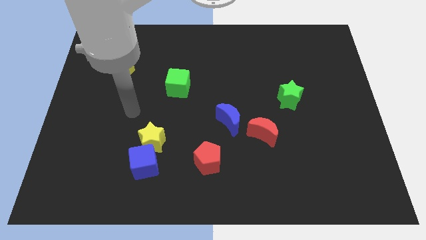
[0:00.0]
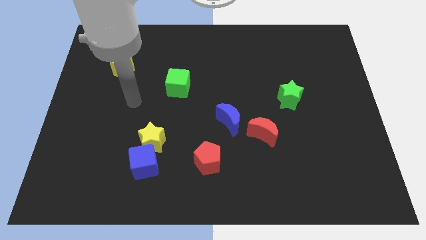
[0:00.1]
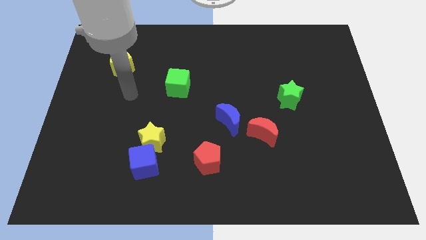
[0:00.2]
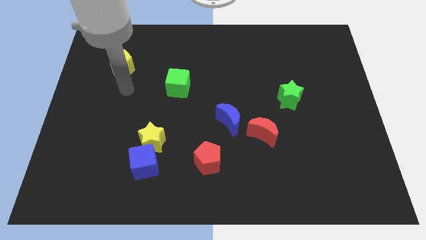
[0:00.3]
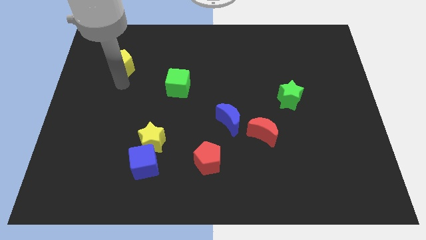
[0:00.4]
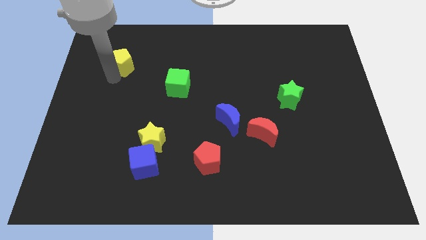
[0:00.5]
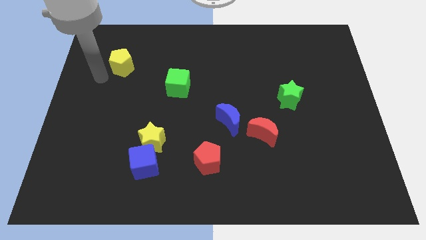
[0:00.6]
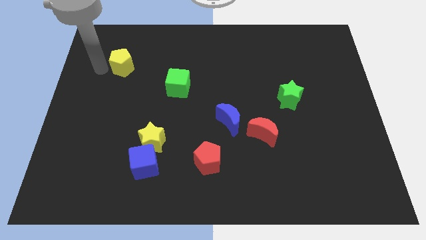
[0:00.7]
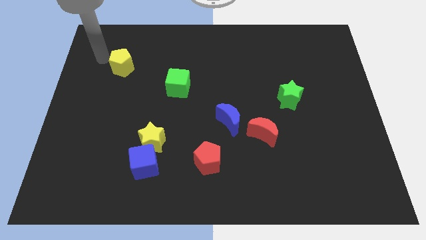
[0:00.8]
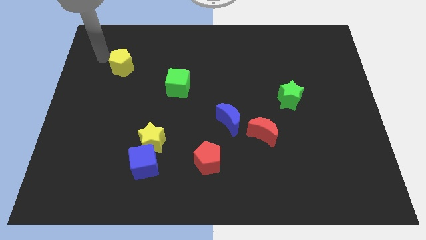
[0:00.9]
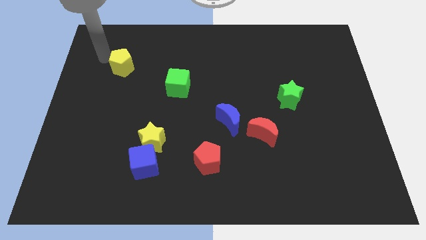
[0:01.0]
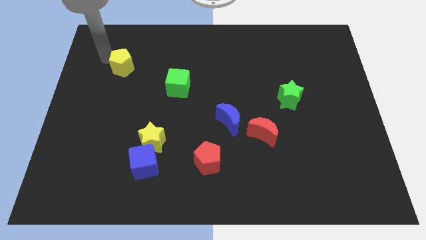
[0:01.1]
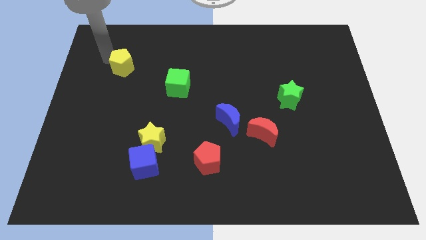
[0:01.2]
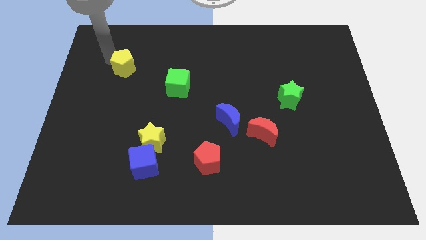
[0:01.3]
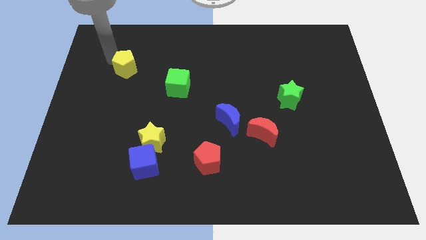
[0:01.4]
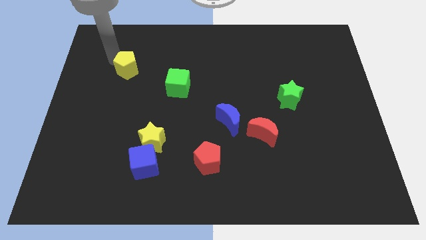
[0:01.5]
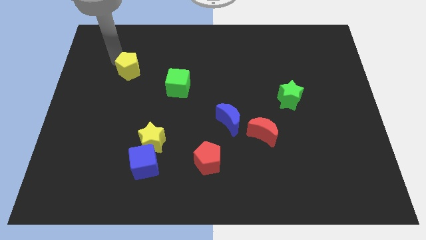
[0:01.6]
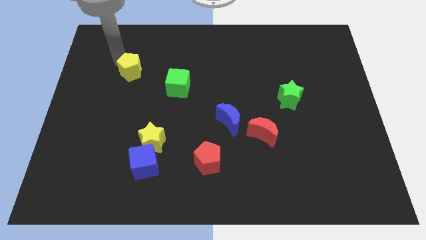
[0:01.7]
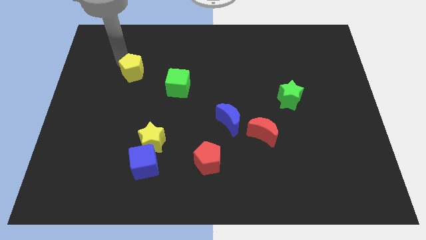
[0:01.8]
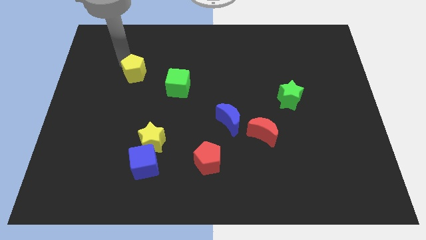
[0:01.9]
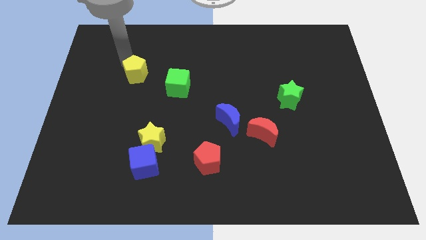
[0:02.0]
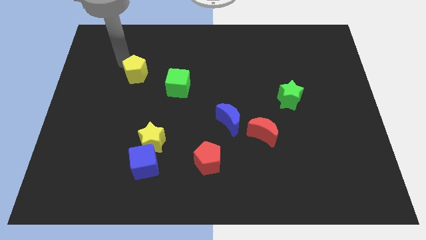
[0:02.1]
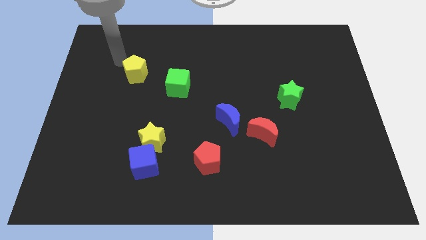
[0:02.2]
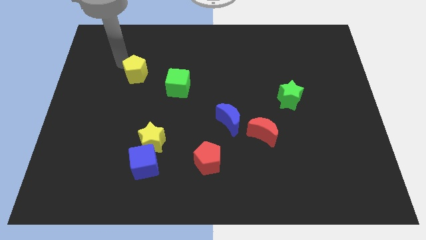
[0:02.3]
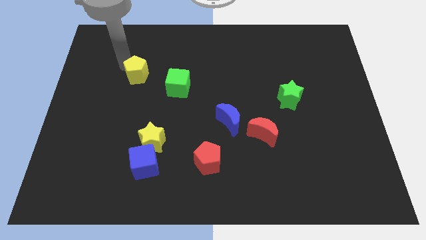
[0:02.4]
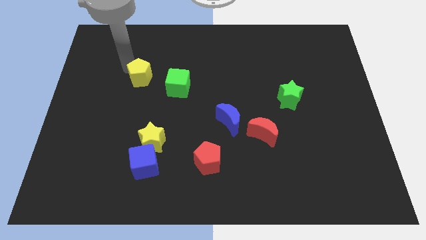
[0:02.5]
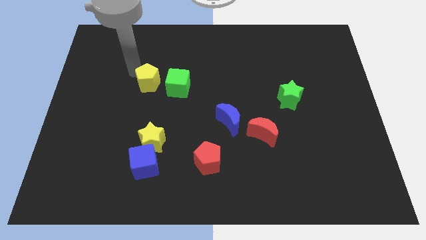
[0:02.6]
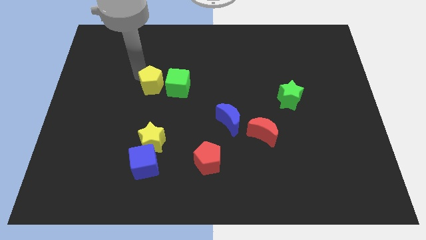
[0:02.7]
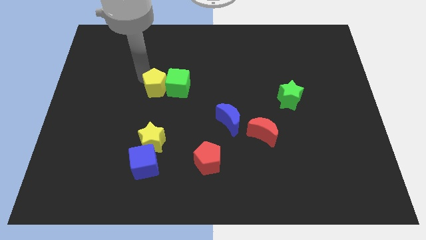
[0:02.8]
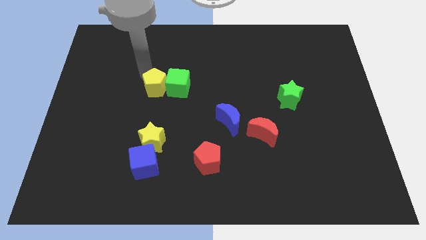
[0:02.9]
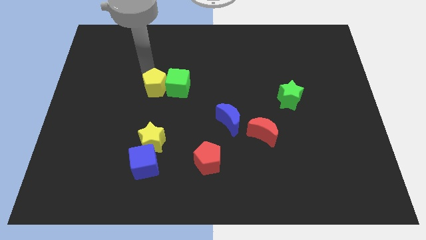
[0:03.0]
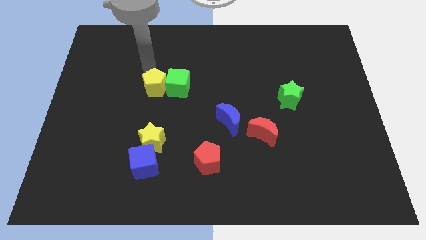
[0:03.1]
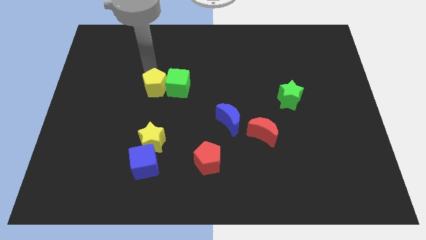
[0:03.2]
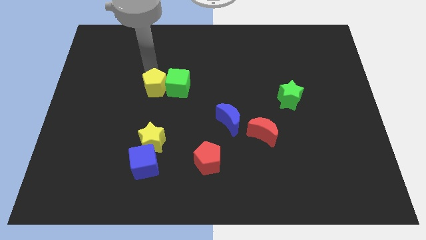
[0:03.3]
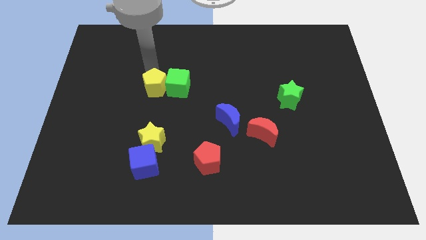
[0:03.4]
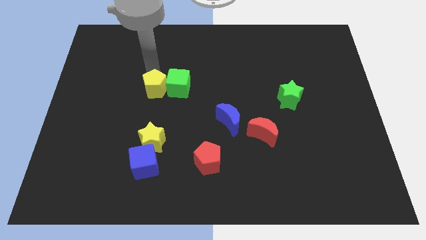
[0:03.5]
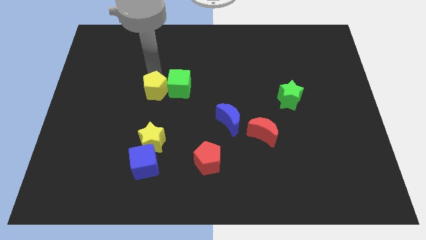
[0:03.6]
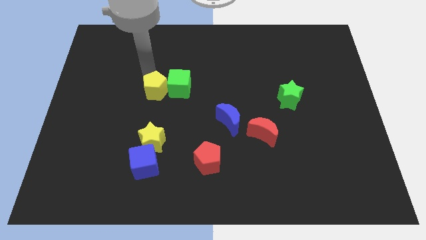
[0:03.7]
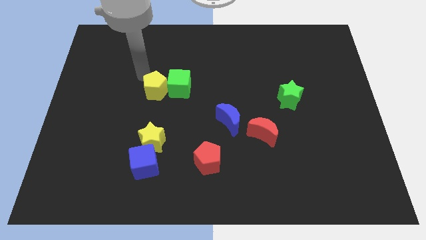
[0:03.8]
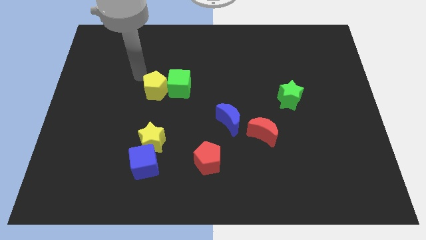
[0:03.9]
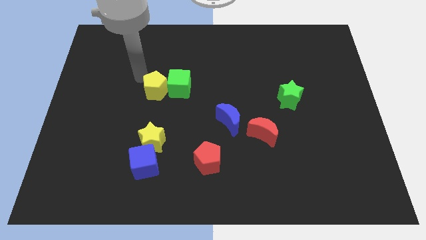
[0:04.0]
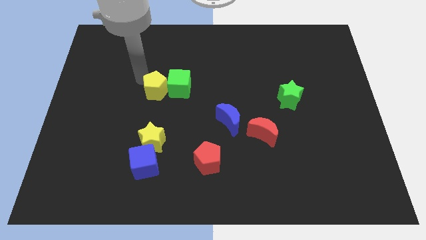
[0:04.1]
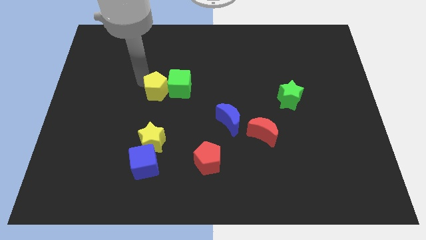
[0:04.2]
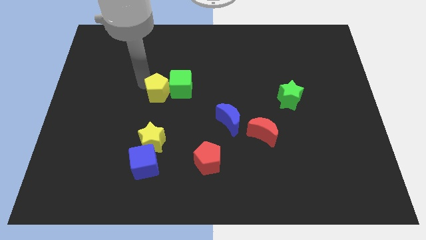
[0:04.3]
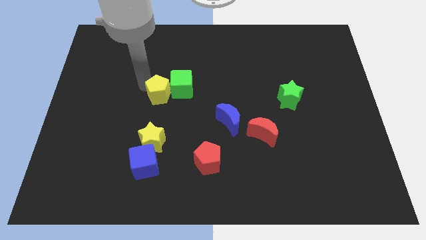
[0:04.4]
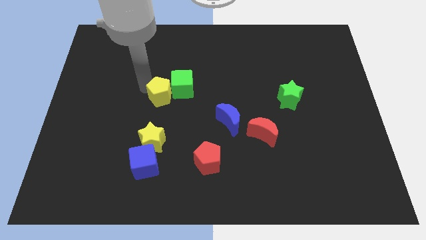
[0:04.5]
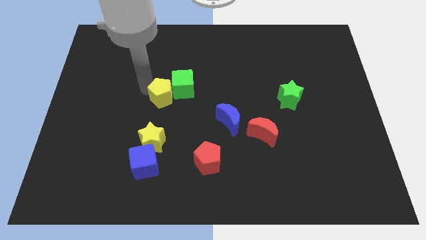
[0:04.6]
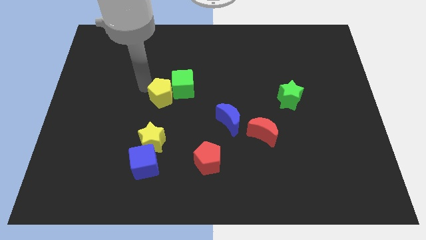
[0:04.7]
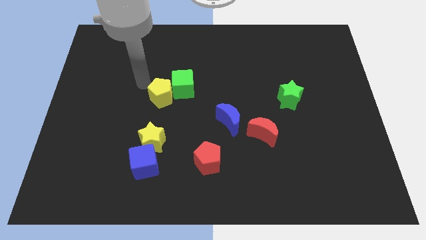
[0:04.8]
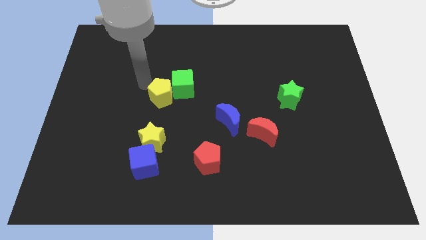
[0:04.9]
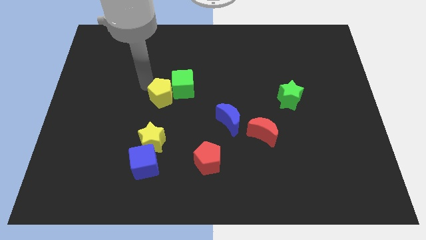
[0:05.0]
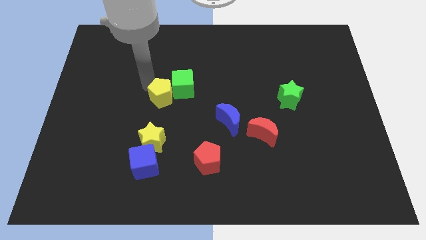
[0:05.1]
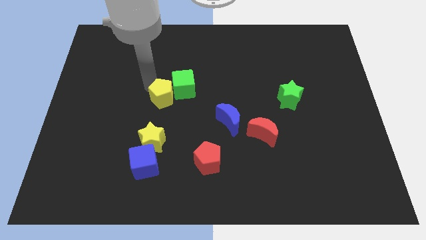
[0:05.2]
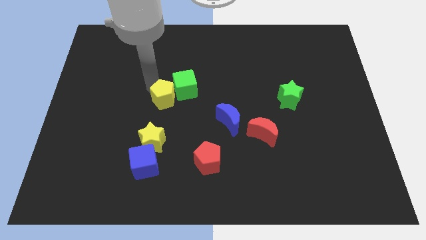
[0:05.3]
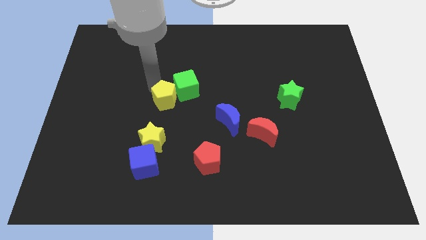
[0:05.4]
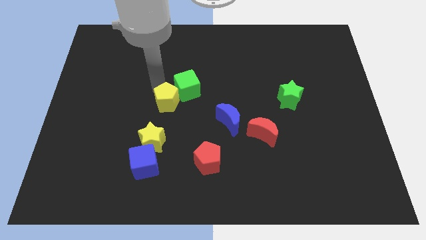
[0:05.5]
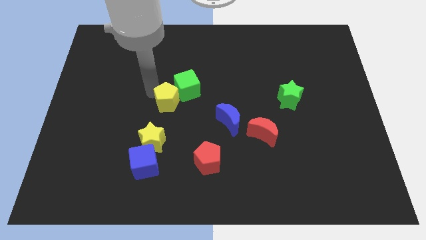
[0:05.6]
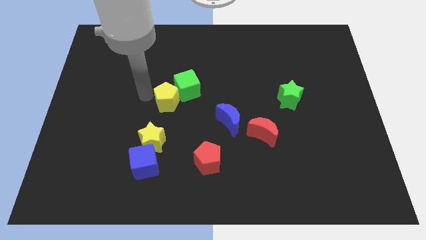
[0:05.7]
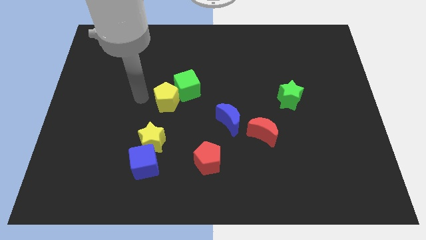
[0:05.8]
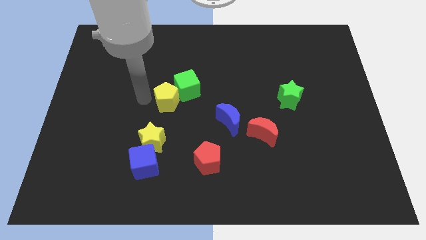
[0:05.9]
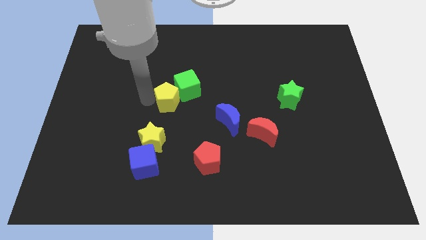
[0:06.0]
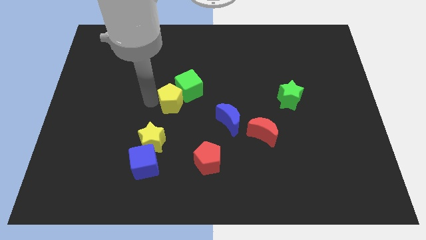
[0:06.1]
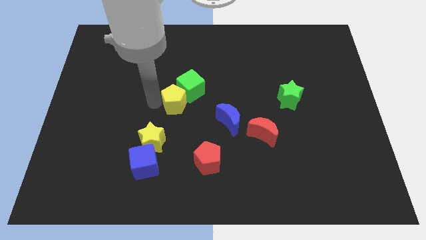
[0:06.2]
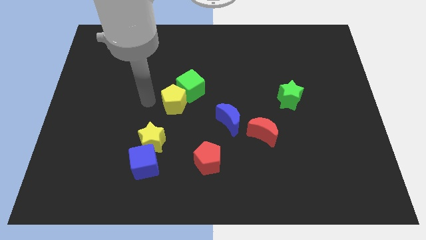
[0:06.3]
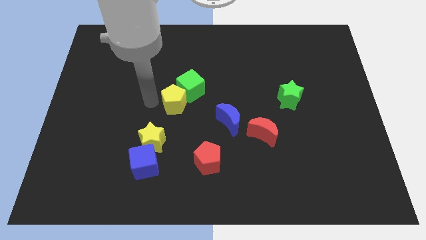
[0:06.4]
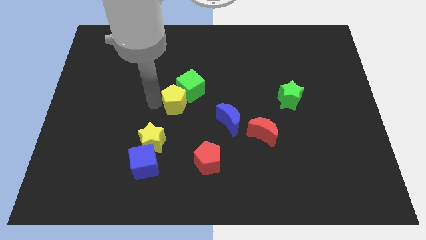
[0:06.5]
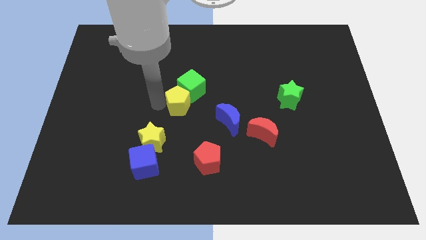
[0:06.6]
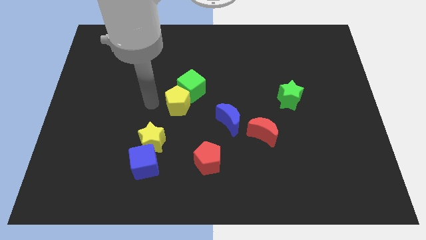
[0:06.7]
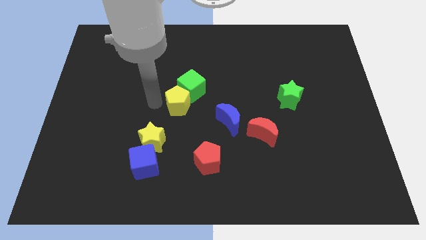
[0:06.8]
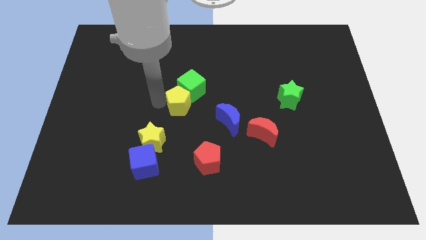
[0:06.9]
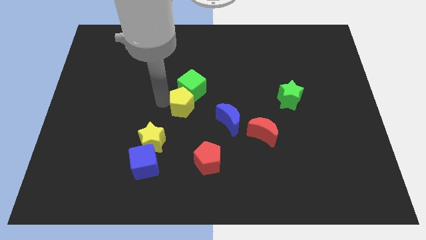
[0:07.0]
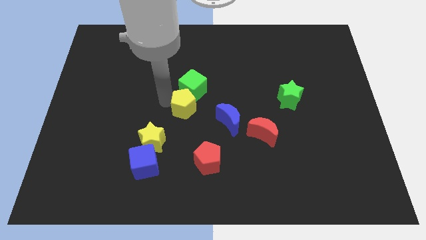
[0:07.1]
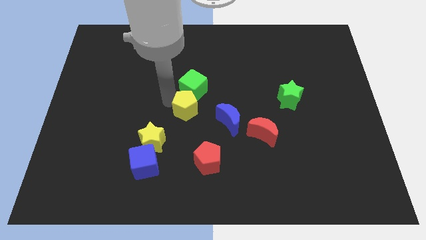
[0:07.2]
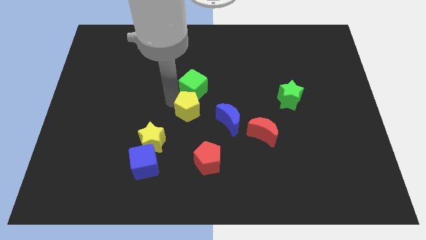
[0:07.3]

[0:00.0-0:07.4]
push the yellow pentagon to the bottom right of the green cube
